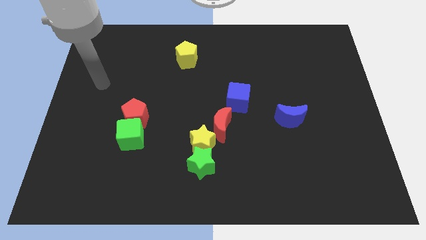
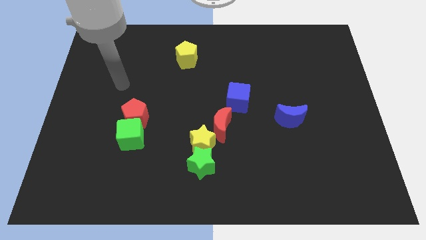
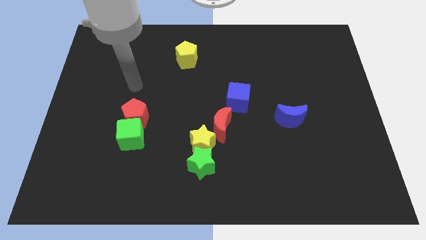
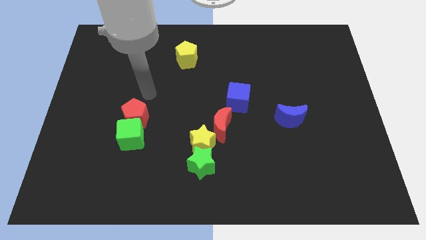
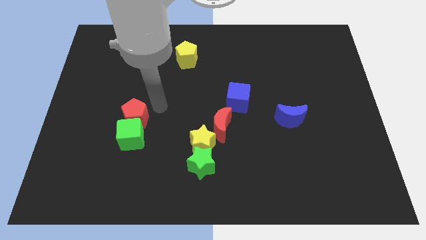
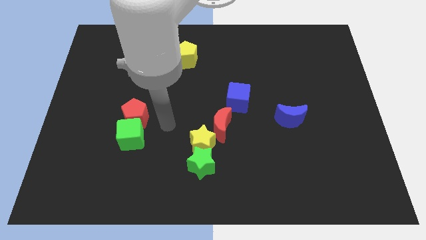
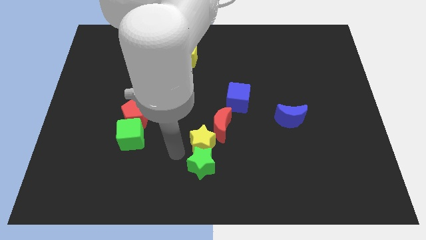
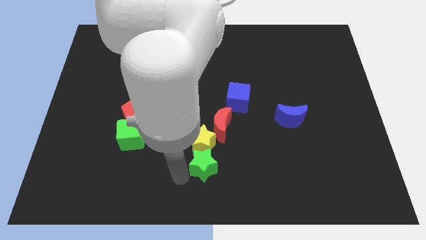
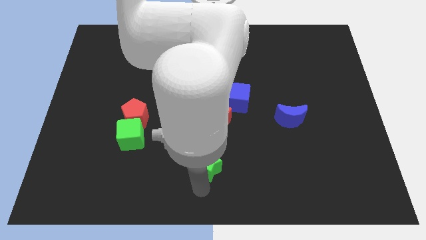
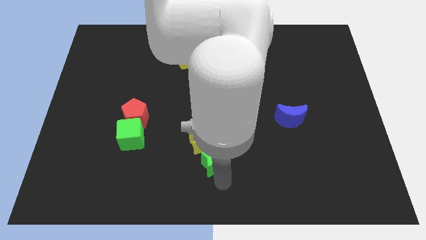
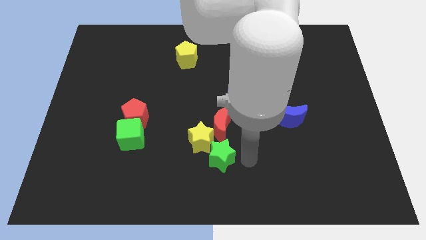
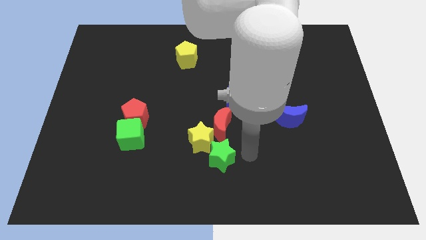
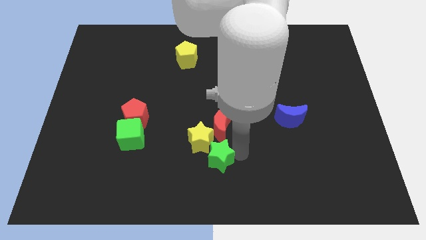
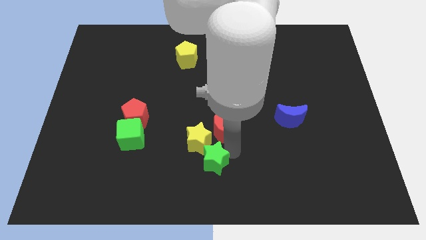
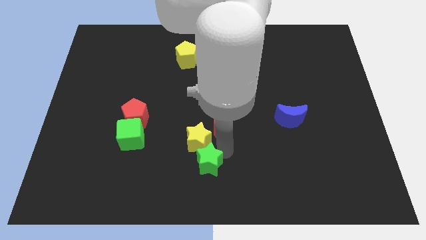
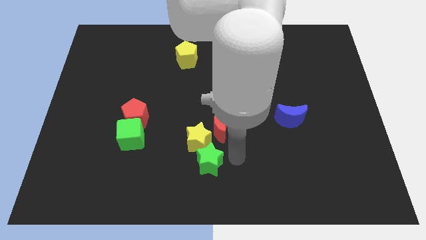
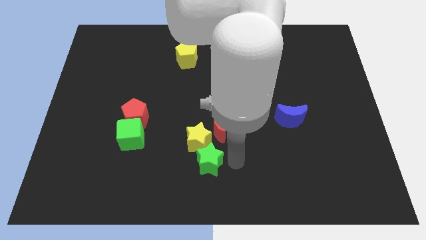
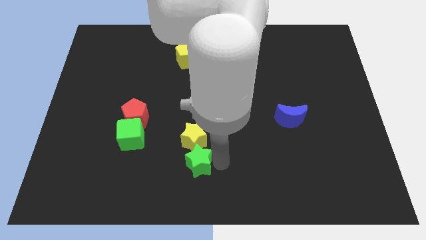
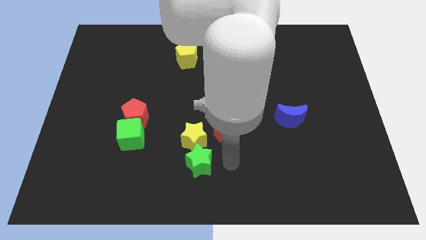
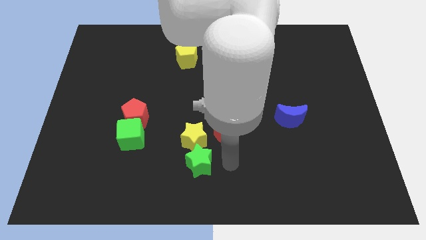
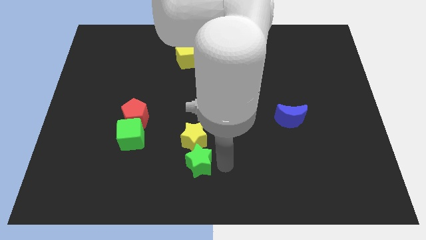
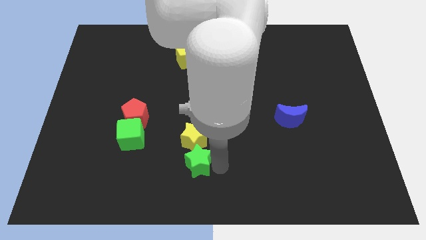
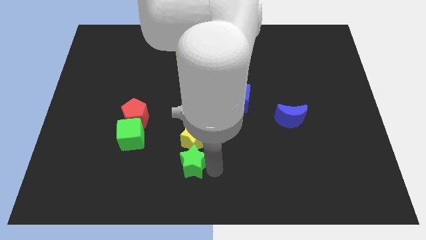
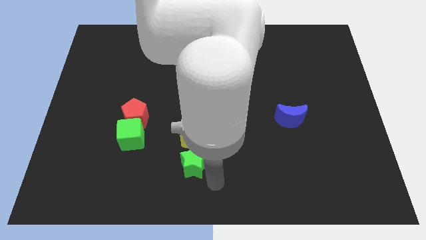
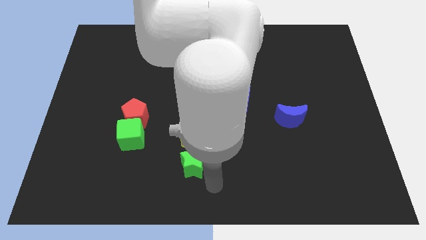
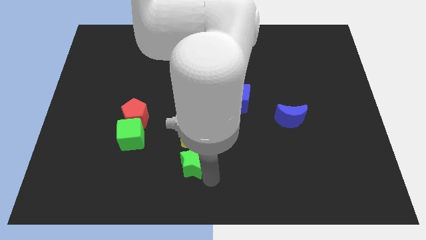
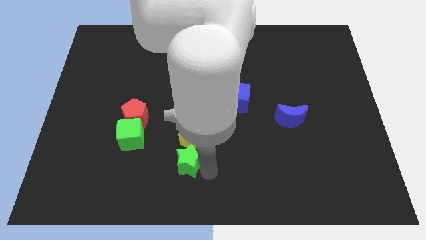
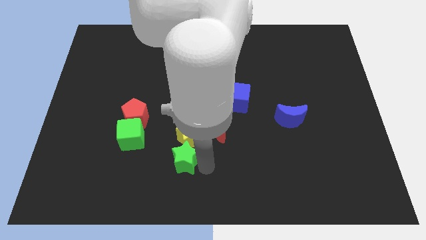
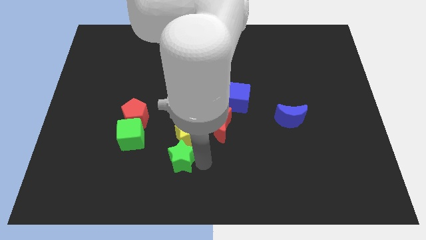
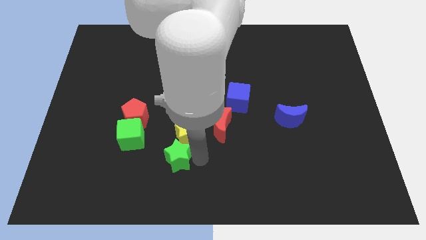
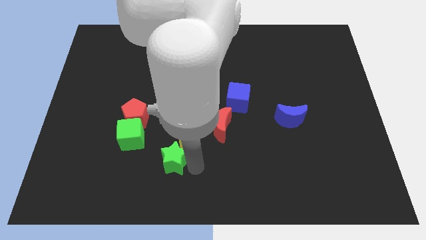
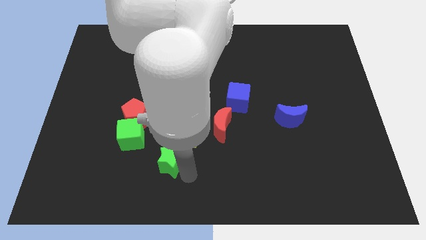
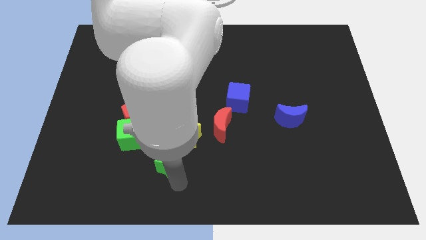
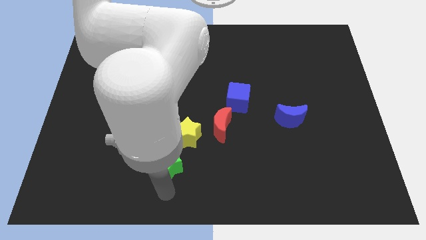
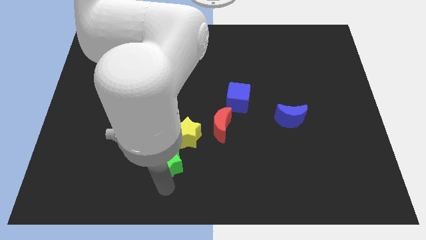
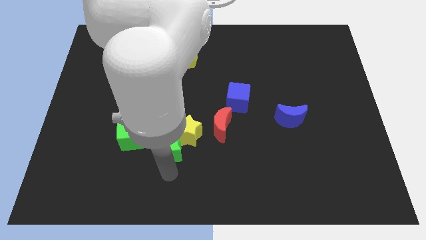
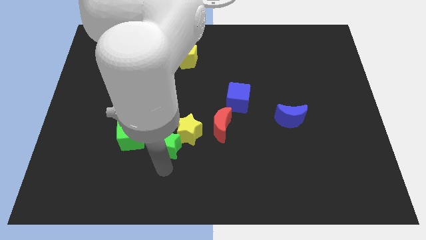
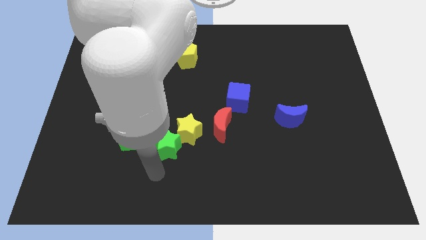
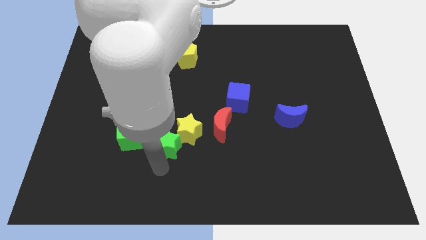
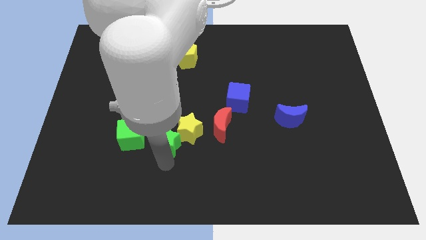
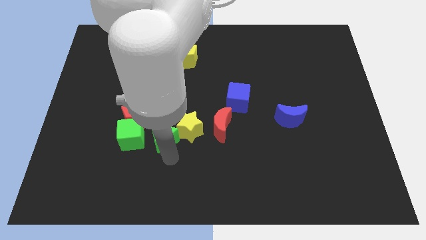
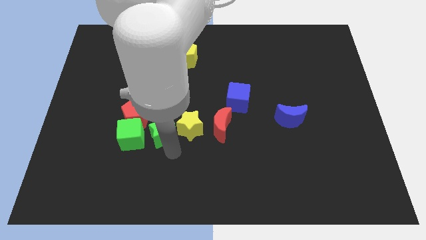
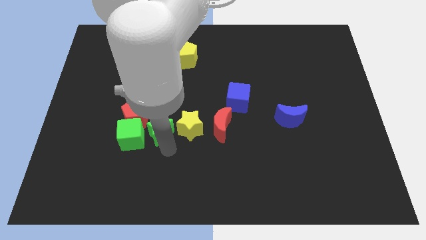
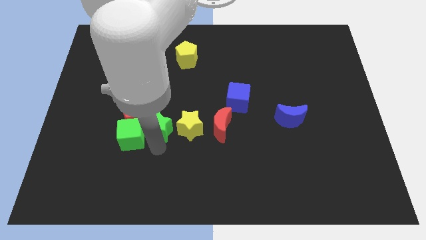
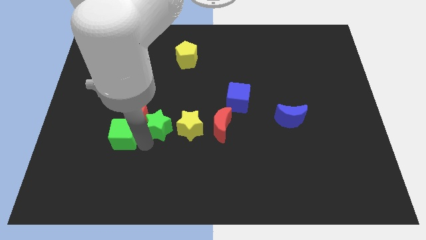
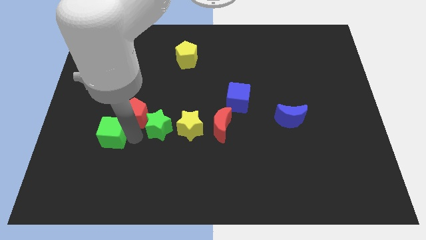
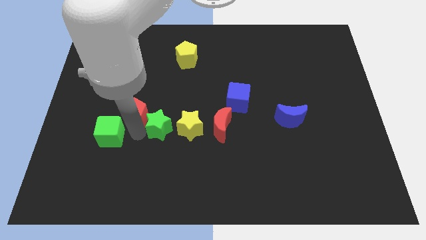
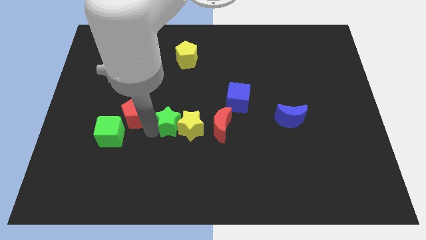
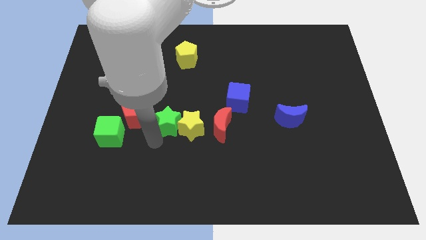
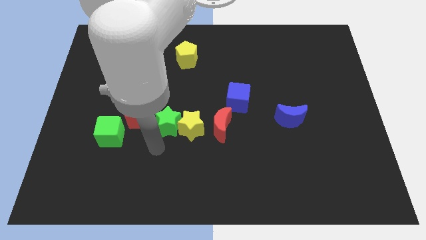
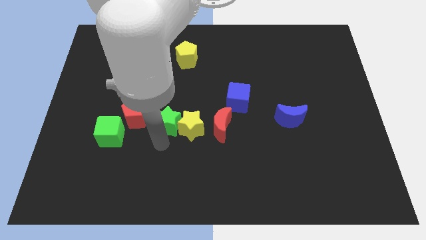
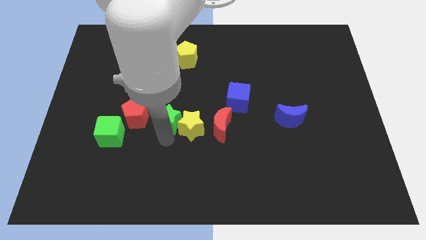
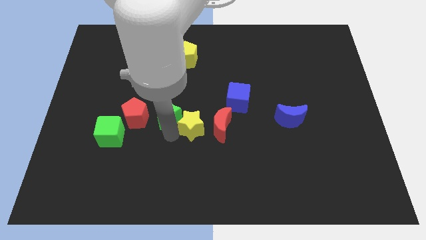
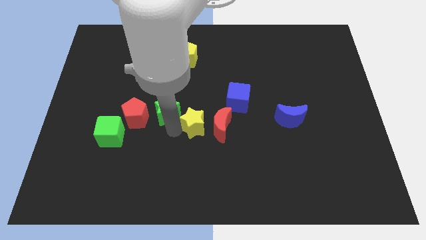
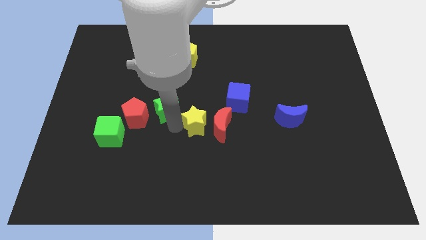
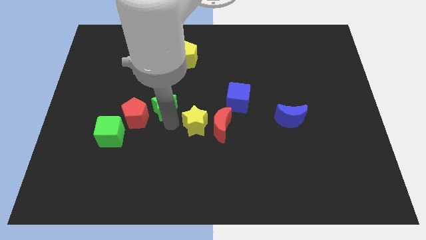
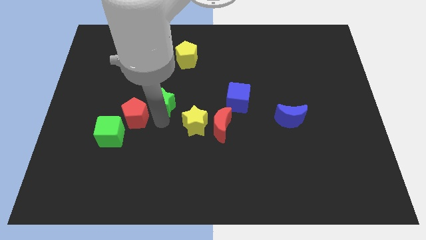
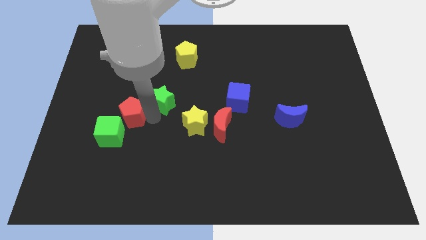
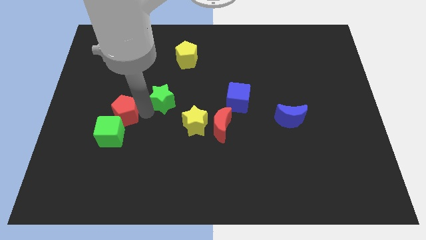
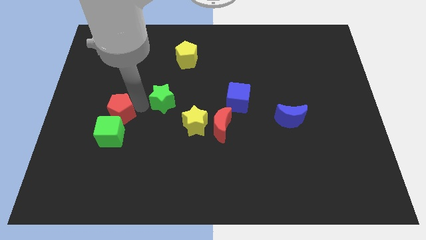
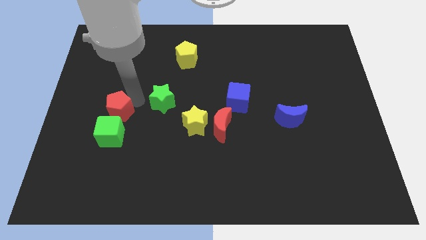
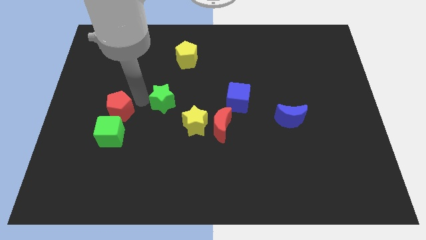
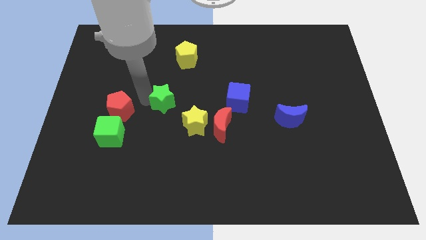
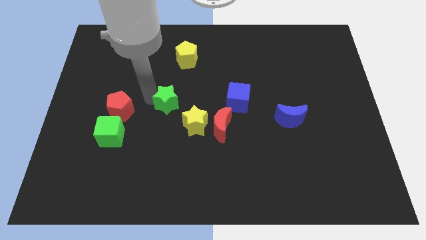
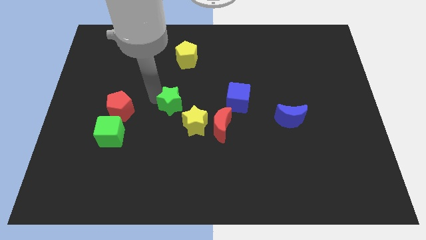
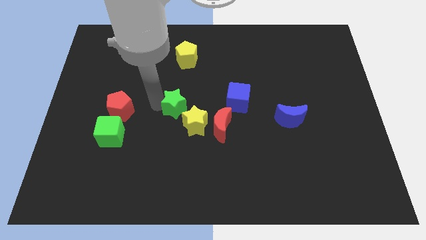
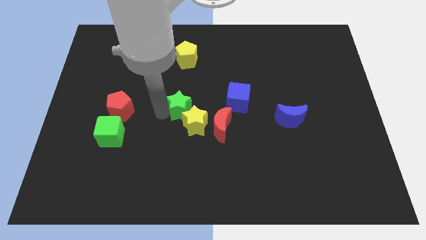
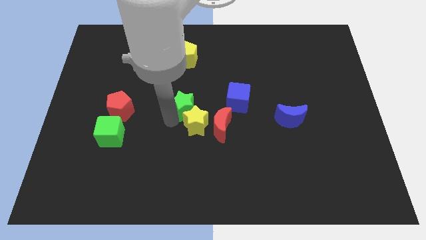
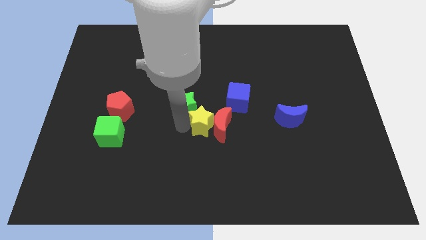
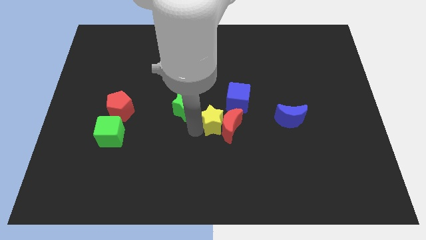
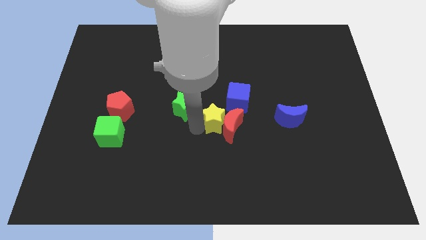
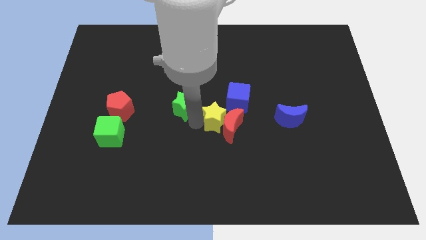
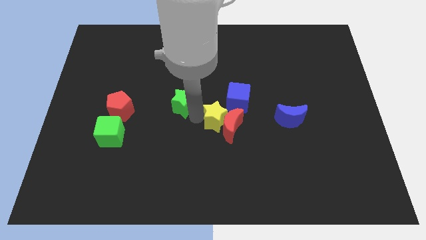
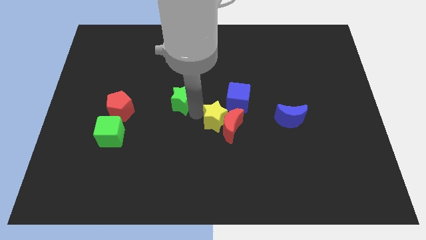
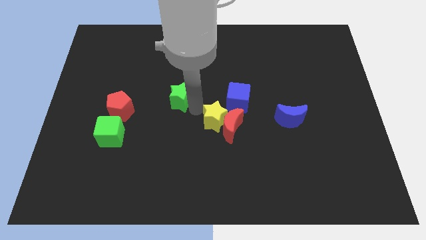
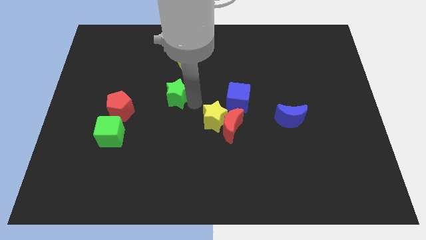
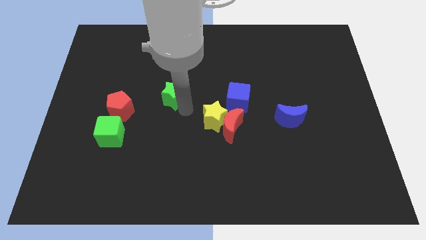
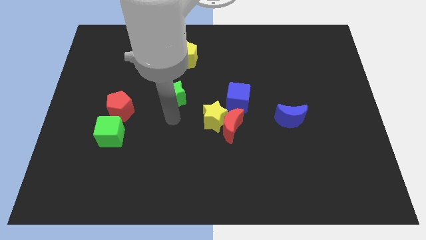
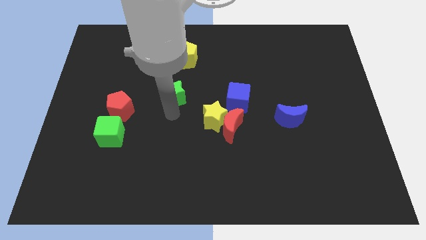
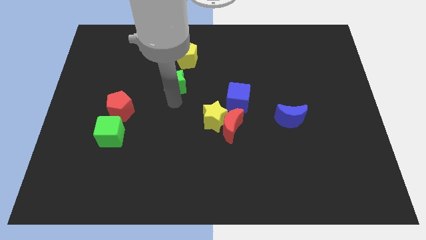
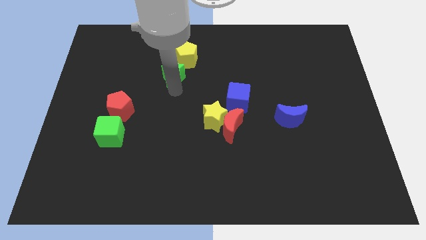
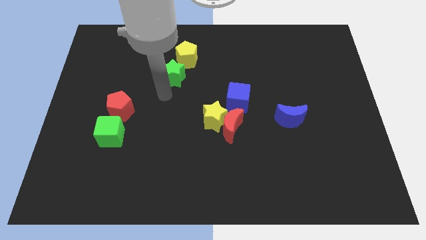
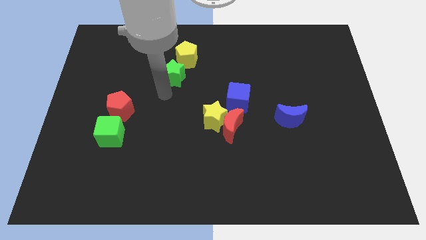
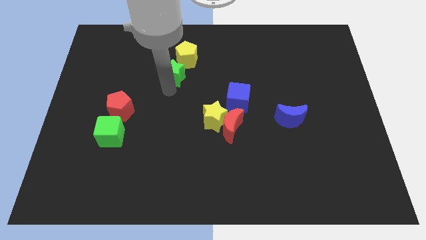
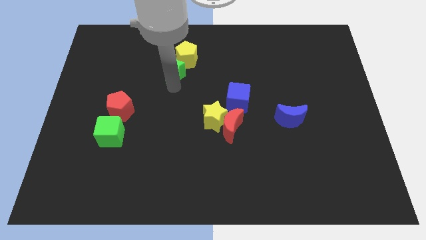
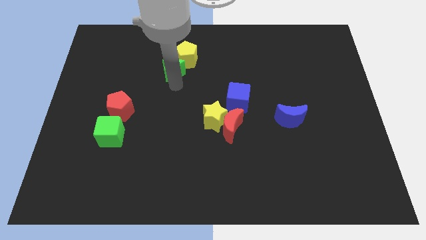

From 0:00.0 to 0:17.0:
move the green star next to the yellow pentagon
